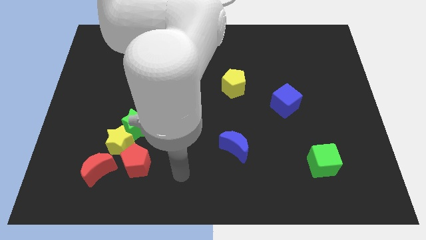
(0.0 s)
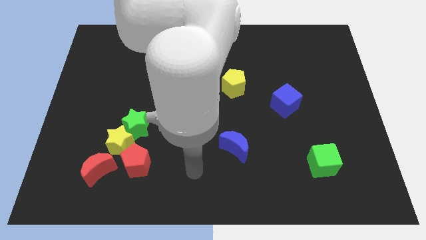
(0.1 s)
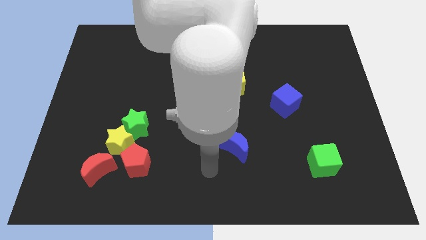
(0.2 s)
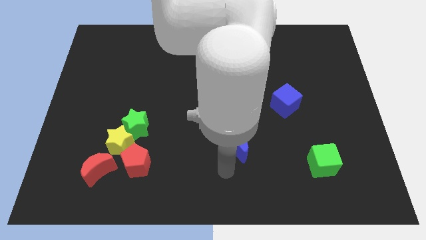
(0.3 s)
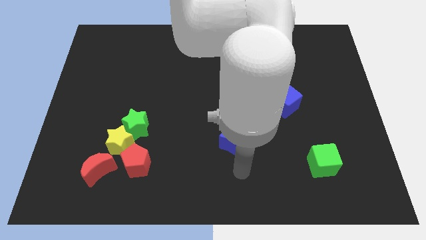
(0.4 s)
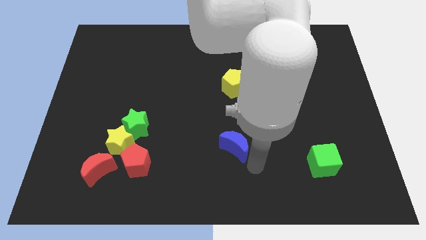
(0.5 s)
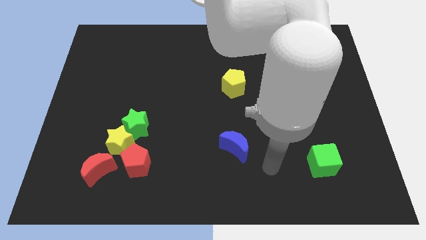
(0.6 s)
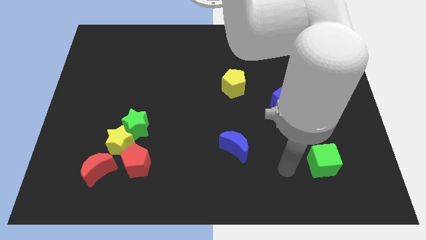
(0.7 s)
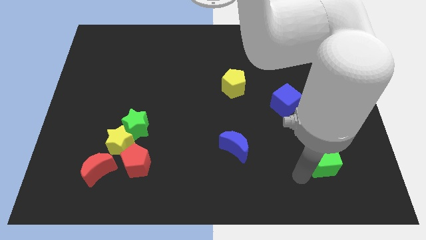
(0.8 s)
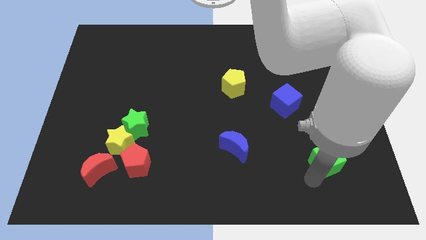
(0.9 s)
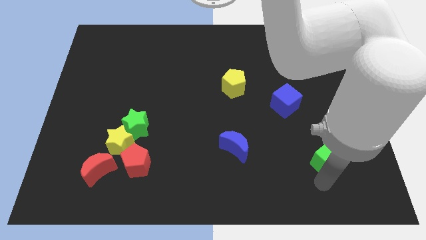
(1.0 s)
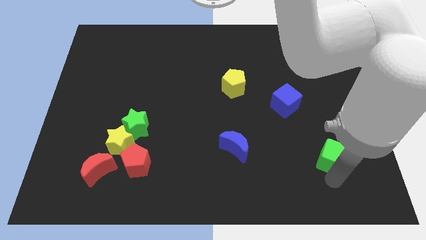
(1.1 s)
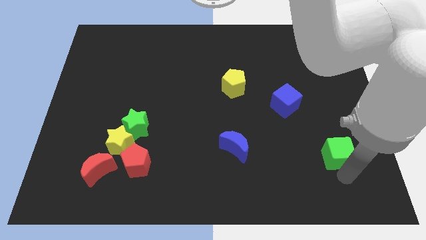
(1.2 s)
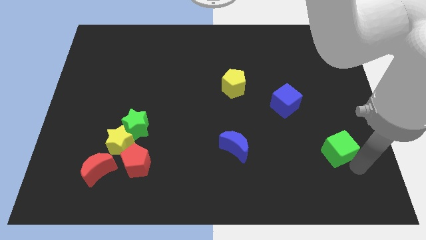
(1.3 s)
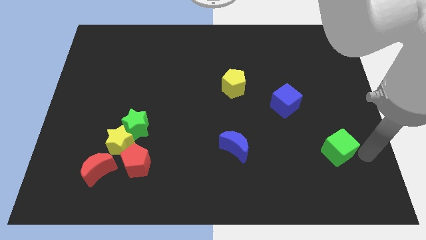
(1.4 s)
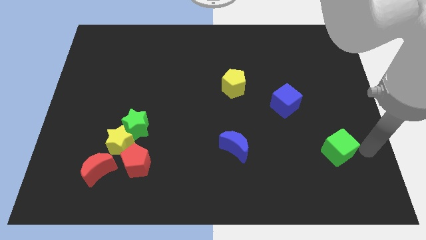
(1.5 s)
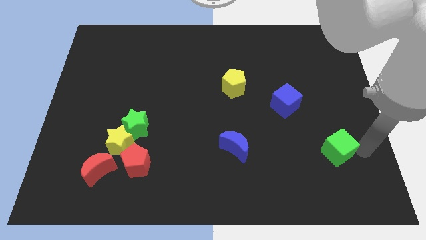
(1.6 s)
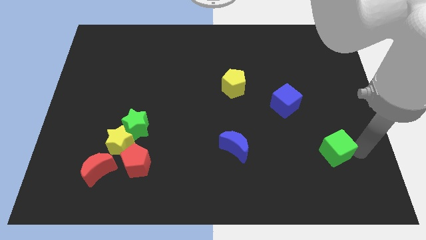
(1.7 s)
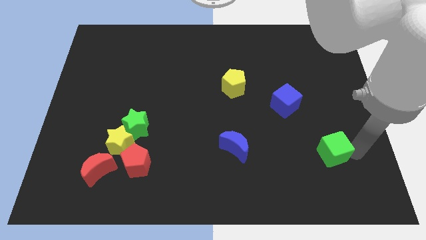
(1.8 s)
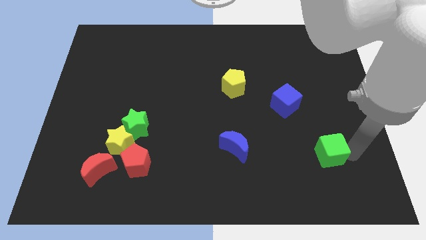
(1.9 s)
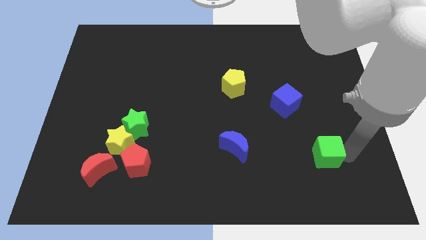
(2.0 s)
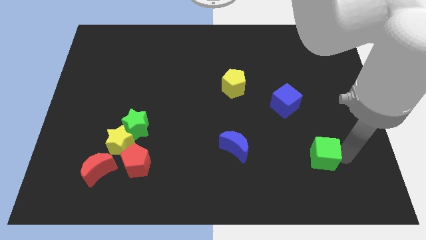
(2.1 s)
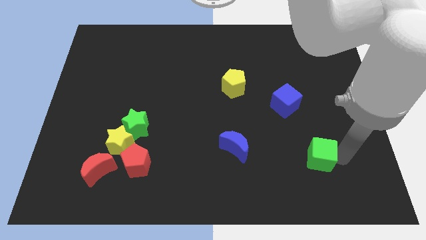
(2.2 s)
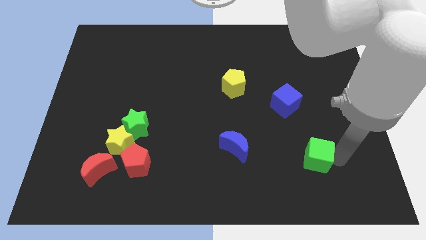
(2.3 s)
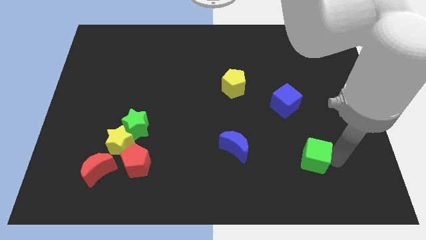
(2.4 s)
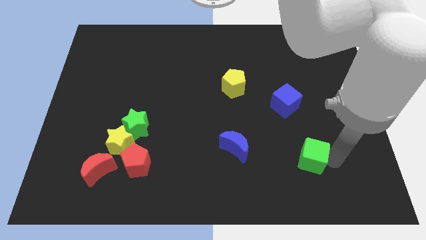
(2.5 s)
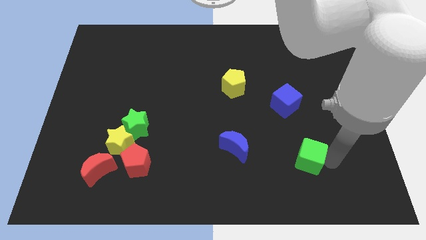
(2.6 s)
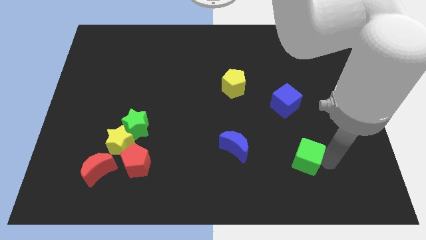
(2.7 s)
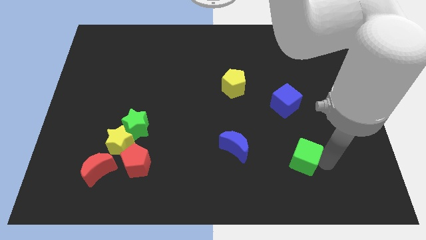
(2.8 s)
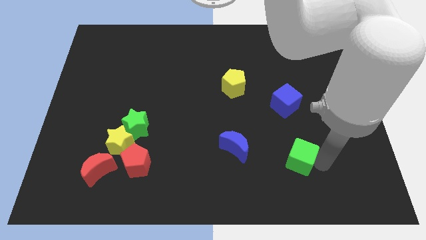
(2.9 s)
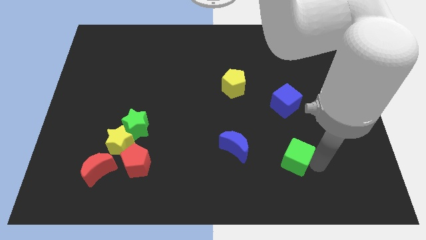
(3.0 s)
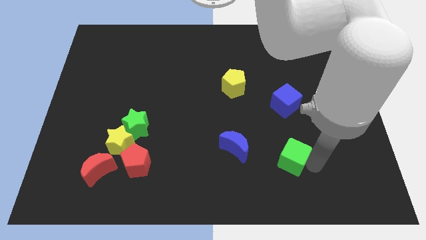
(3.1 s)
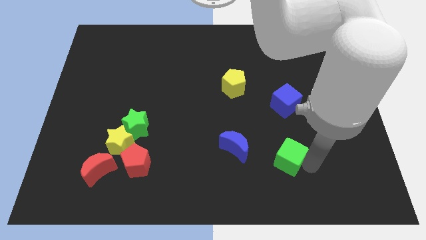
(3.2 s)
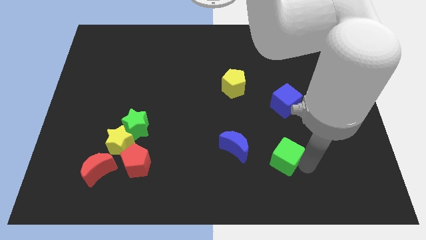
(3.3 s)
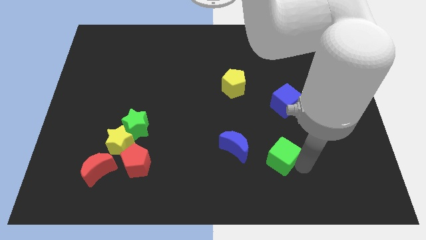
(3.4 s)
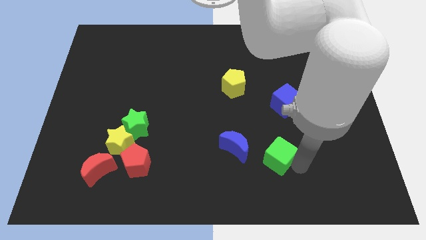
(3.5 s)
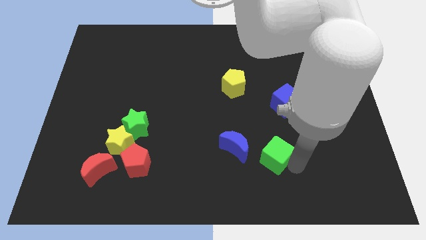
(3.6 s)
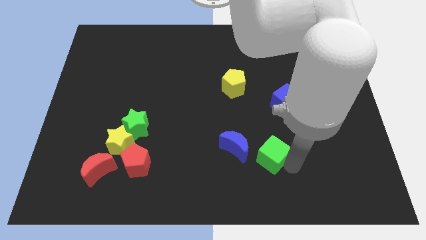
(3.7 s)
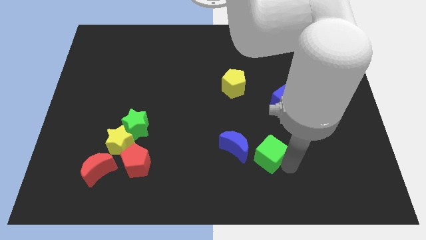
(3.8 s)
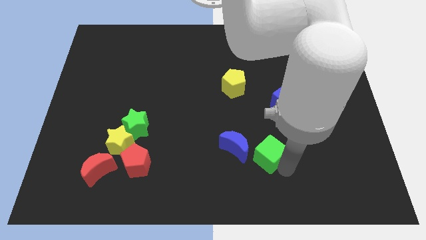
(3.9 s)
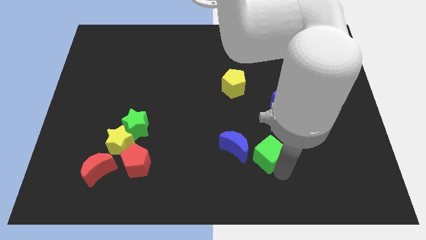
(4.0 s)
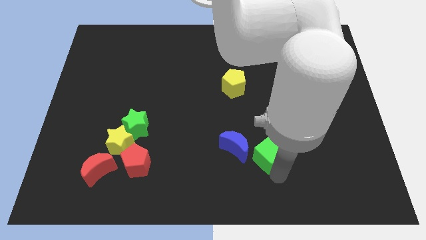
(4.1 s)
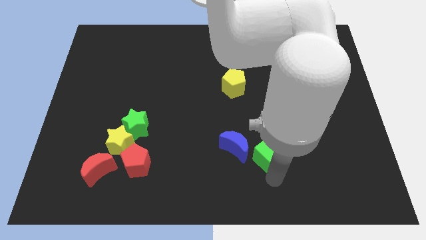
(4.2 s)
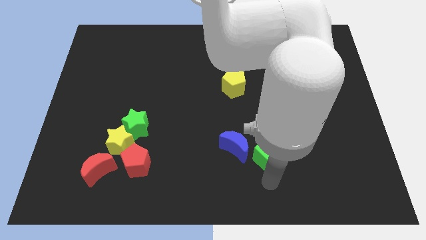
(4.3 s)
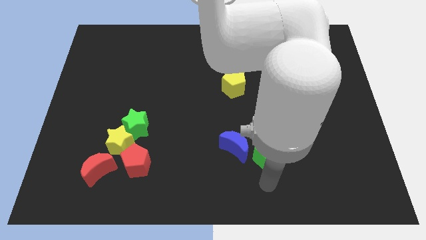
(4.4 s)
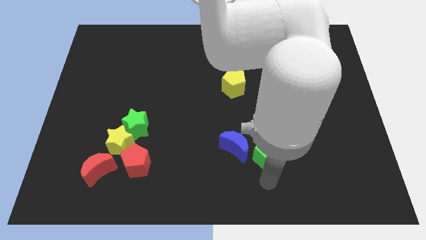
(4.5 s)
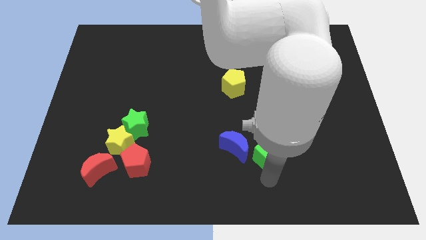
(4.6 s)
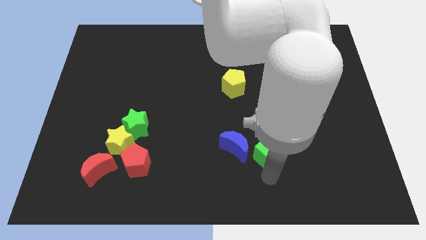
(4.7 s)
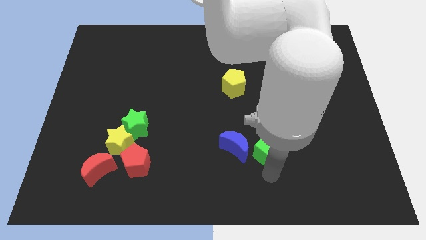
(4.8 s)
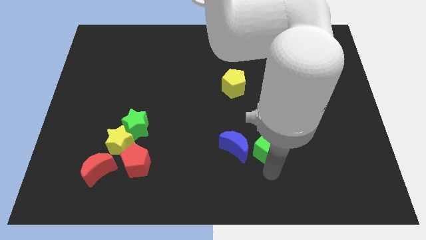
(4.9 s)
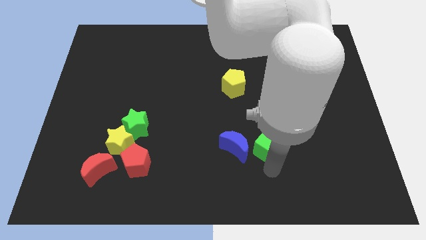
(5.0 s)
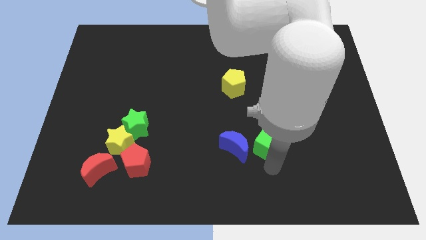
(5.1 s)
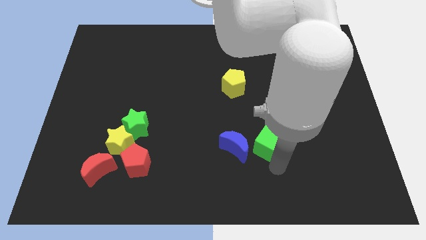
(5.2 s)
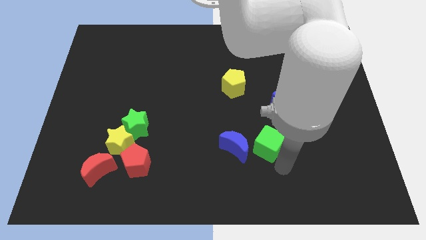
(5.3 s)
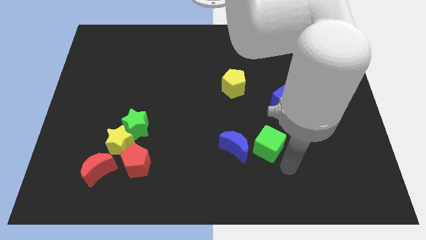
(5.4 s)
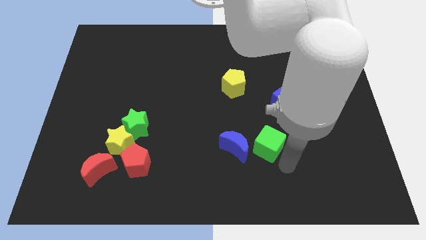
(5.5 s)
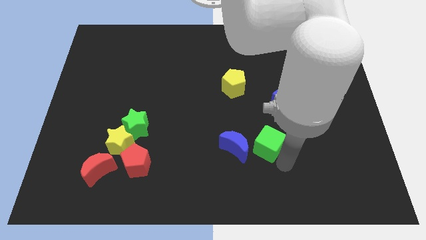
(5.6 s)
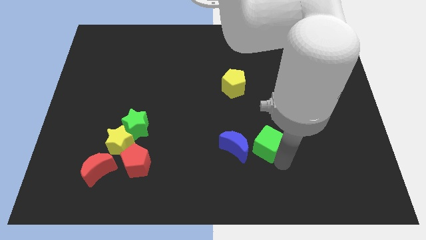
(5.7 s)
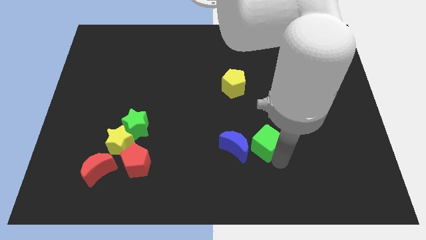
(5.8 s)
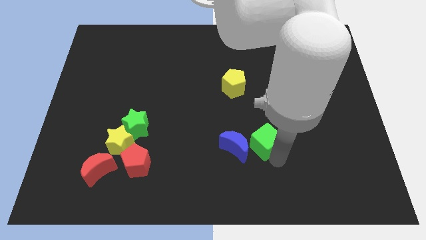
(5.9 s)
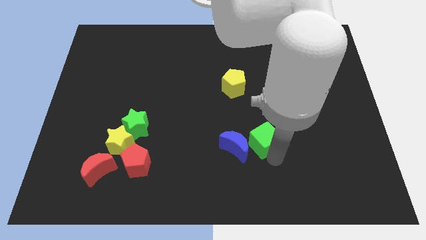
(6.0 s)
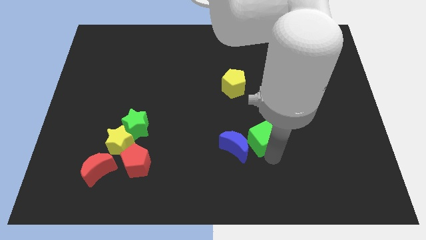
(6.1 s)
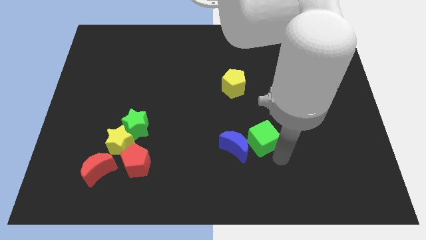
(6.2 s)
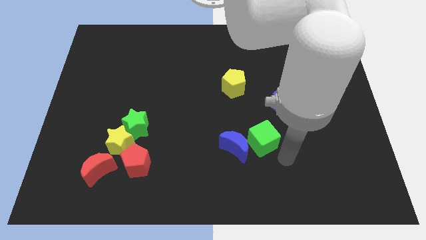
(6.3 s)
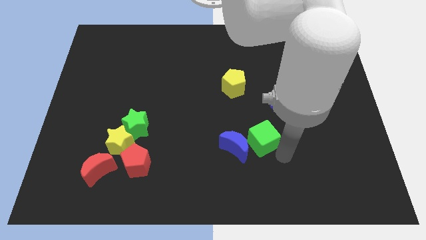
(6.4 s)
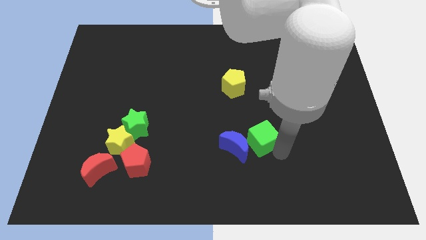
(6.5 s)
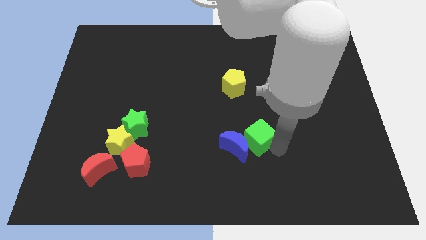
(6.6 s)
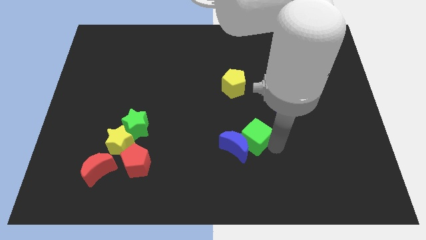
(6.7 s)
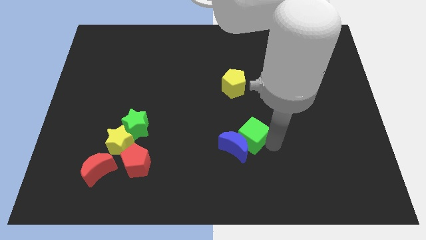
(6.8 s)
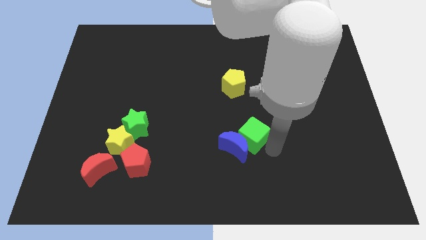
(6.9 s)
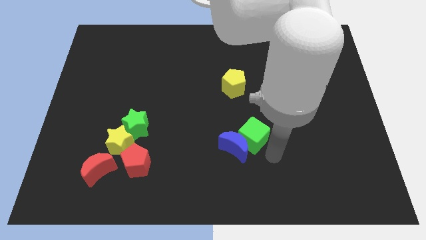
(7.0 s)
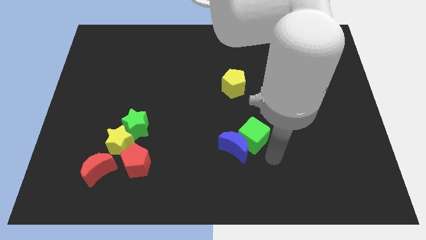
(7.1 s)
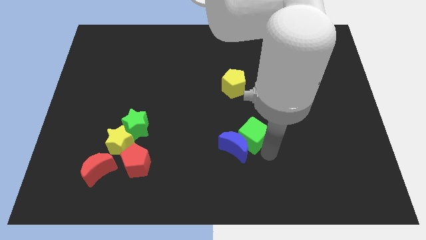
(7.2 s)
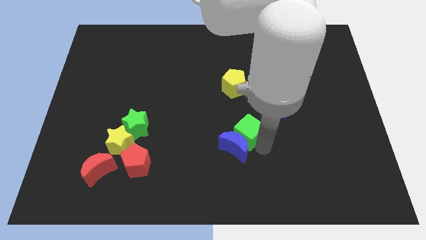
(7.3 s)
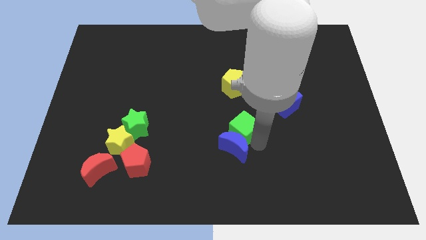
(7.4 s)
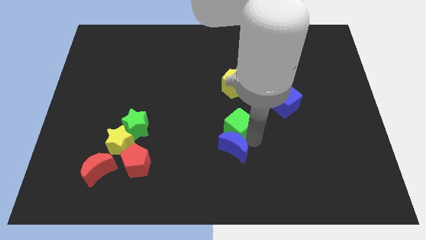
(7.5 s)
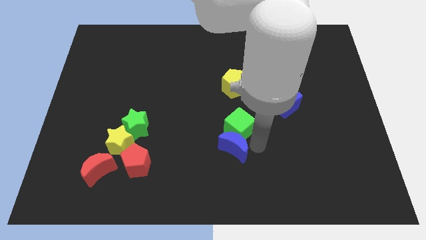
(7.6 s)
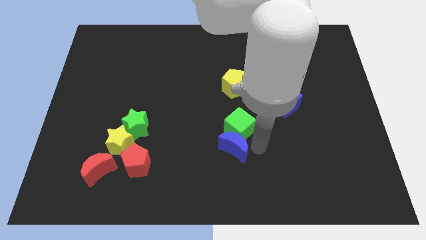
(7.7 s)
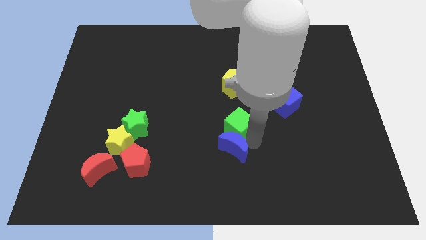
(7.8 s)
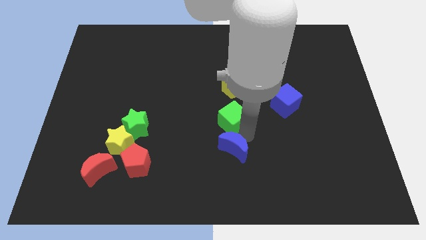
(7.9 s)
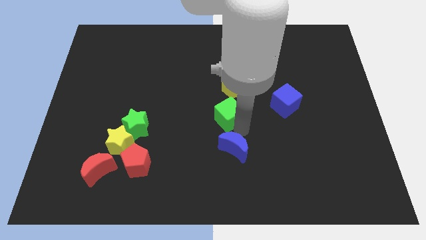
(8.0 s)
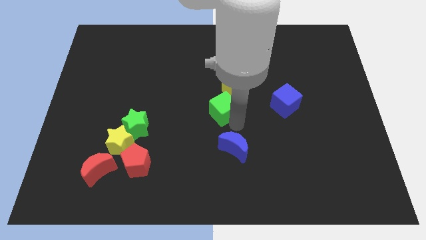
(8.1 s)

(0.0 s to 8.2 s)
slide the green cube diagonally down and to the left of the yellow pentagon
